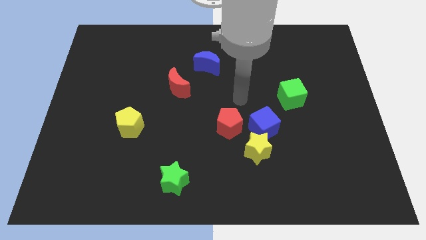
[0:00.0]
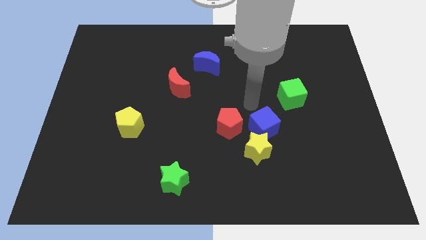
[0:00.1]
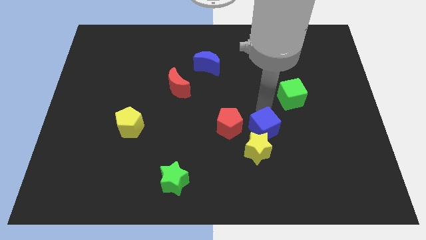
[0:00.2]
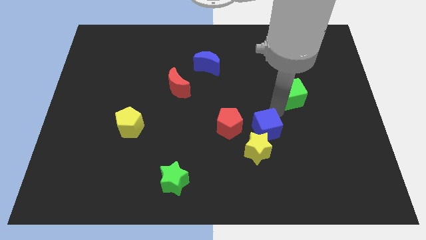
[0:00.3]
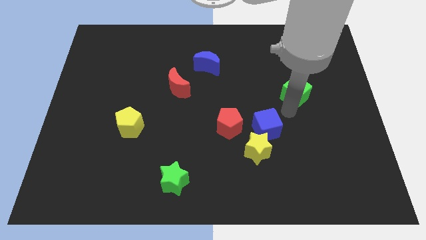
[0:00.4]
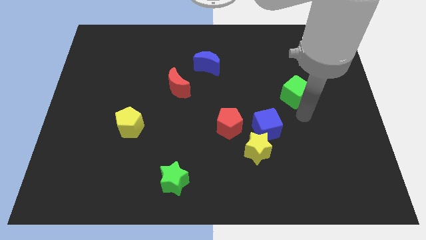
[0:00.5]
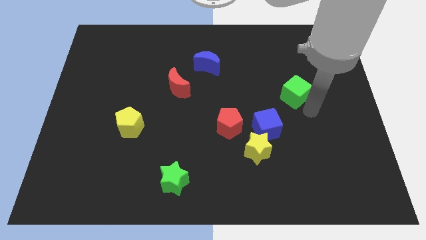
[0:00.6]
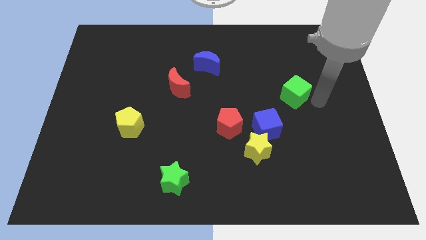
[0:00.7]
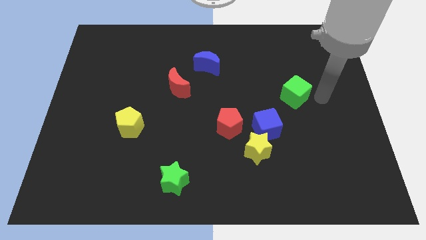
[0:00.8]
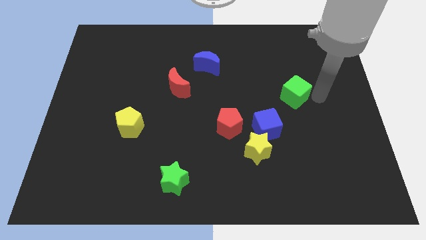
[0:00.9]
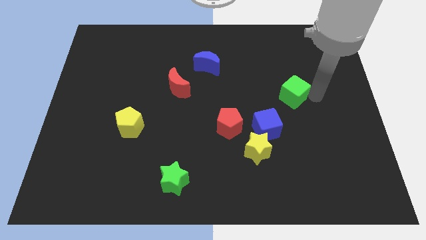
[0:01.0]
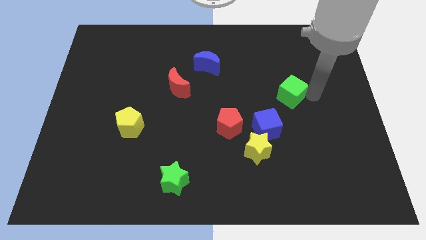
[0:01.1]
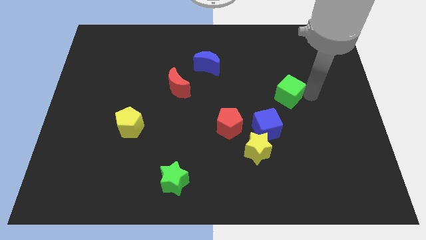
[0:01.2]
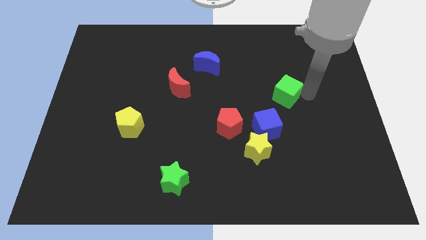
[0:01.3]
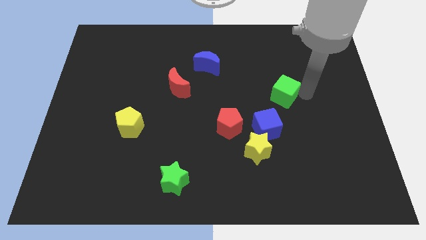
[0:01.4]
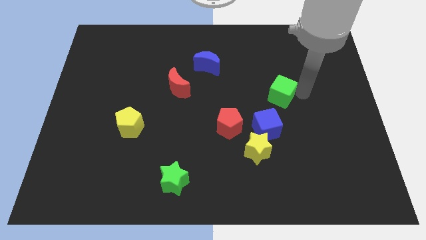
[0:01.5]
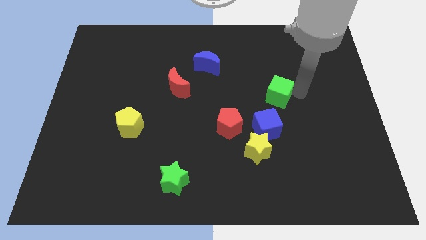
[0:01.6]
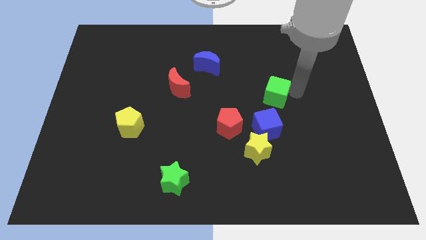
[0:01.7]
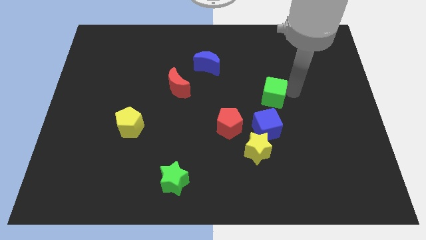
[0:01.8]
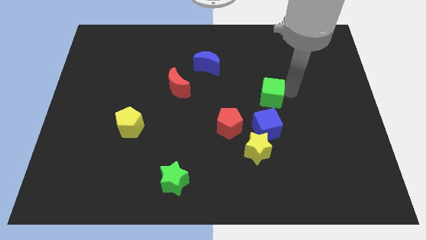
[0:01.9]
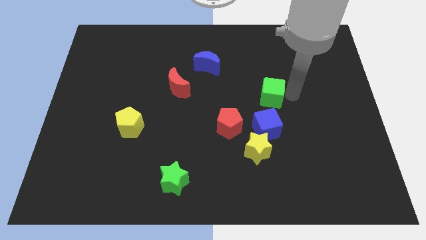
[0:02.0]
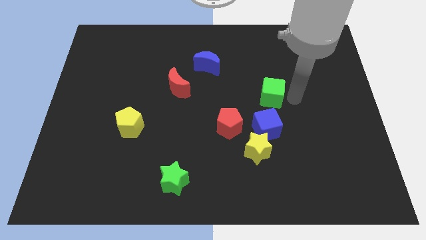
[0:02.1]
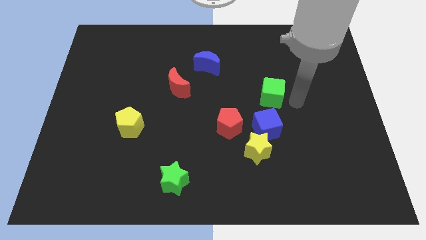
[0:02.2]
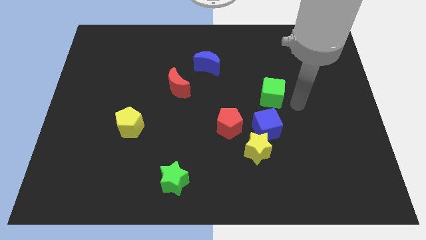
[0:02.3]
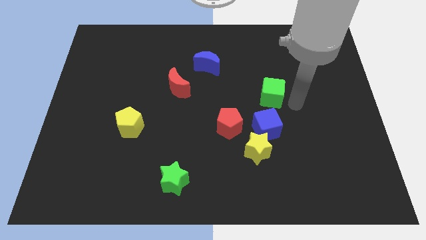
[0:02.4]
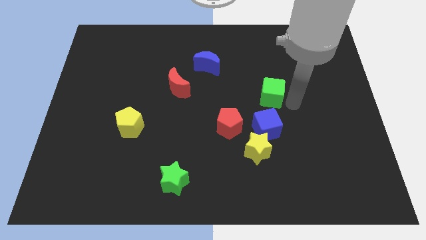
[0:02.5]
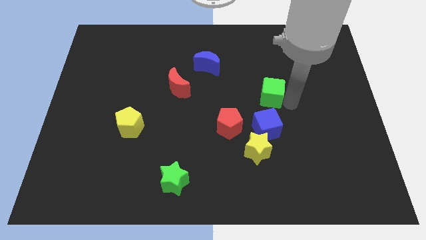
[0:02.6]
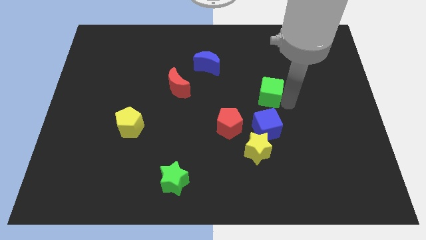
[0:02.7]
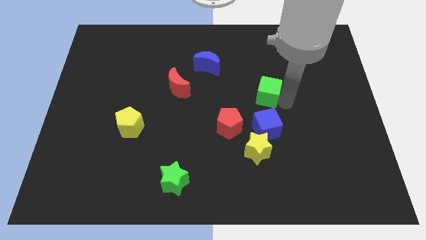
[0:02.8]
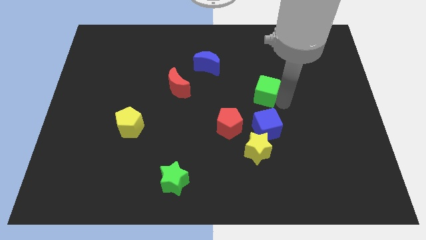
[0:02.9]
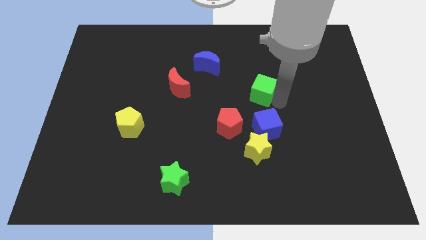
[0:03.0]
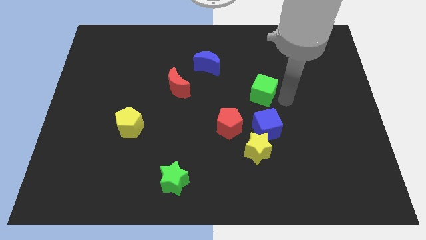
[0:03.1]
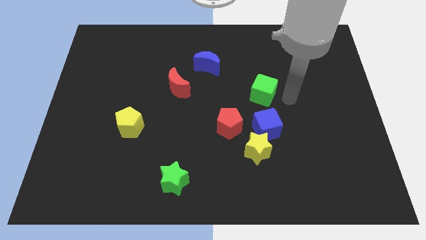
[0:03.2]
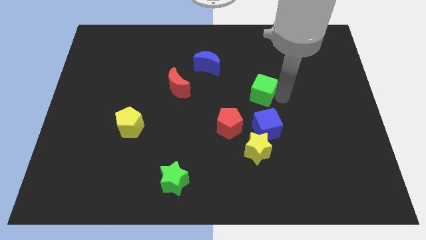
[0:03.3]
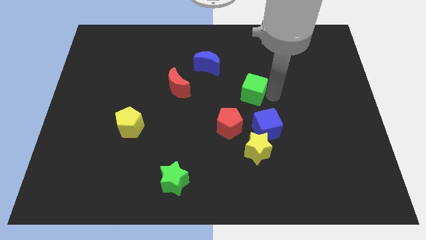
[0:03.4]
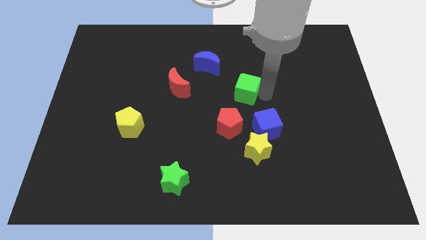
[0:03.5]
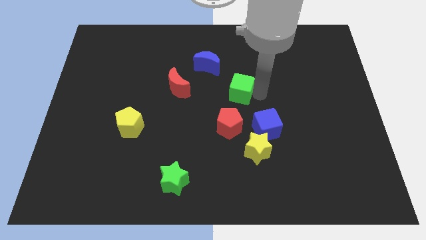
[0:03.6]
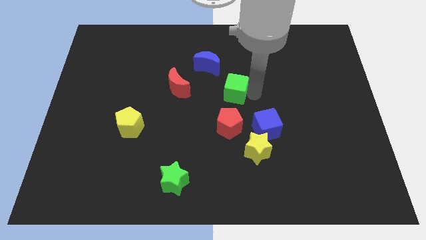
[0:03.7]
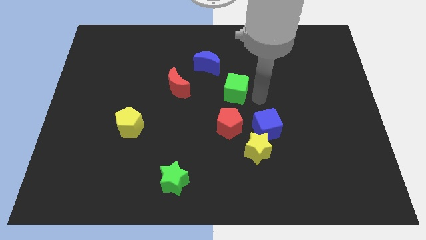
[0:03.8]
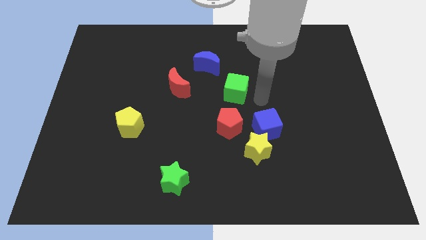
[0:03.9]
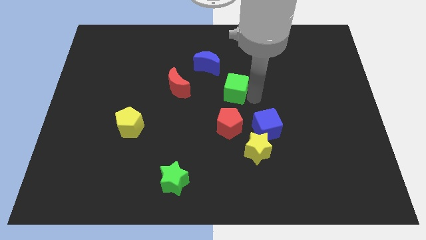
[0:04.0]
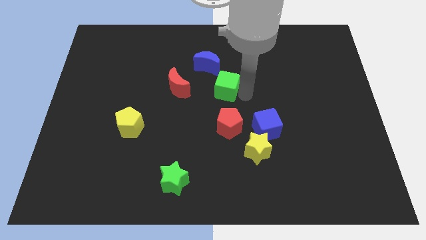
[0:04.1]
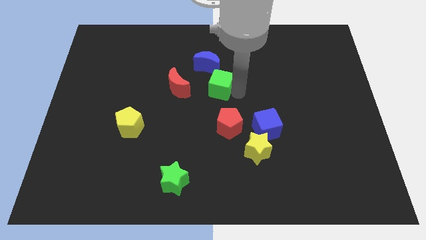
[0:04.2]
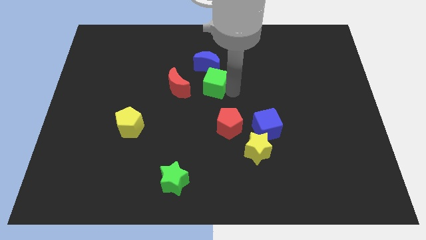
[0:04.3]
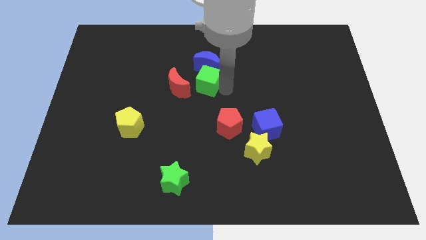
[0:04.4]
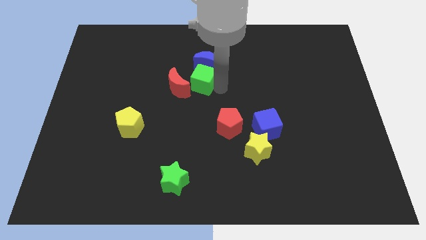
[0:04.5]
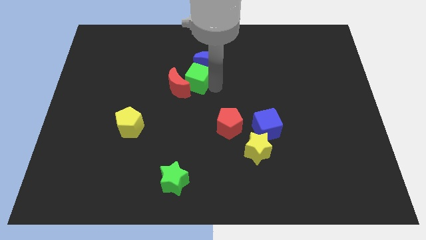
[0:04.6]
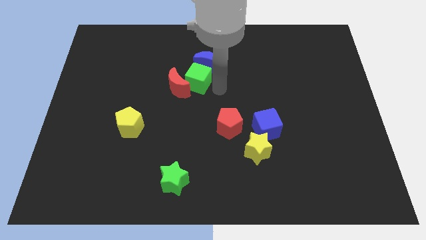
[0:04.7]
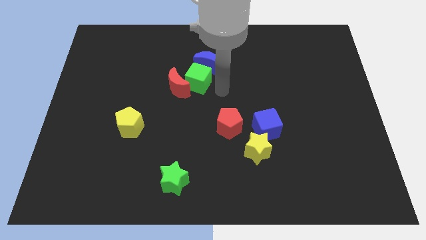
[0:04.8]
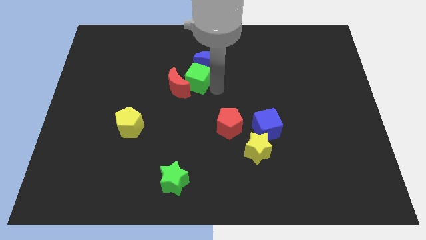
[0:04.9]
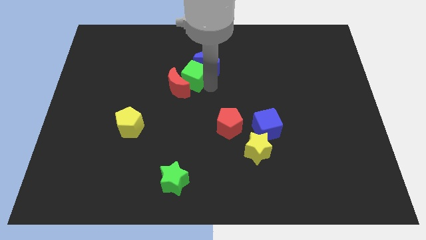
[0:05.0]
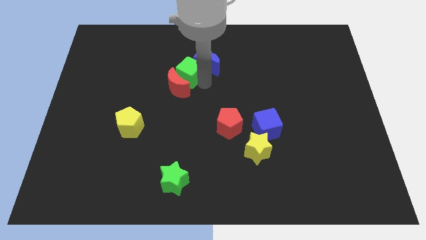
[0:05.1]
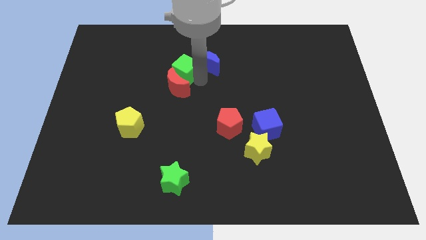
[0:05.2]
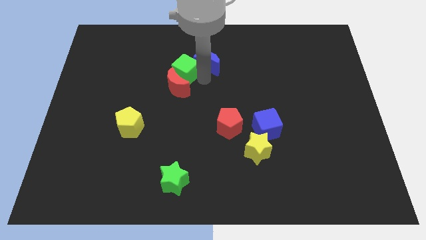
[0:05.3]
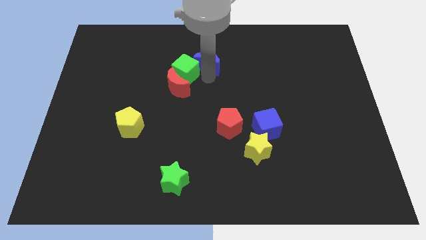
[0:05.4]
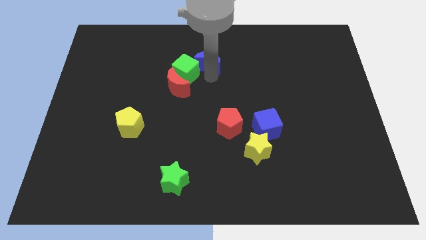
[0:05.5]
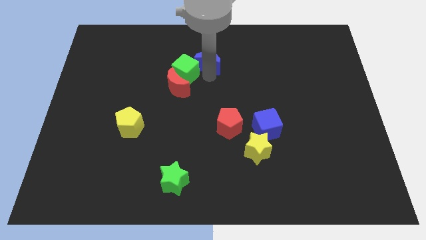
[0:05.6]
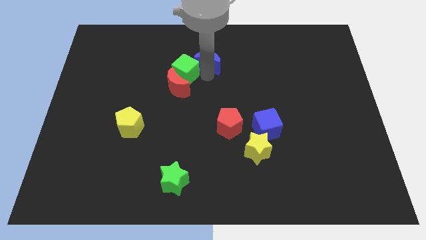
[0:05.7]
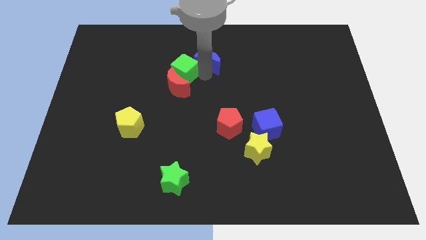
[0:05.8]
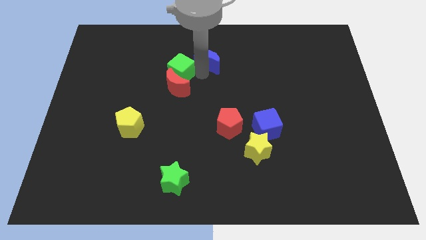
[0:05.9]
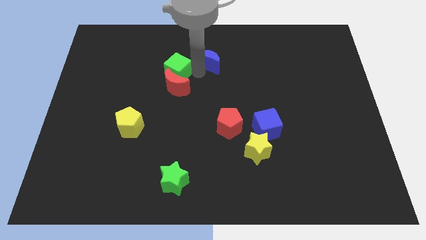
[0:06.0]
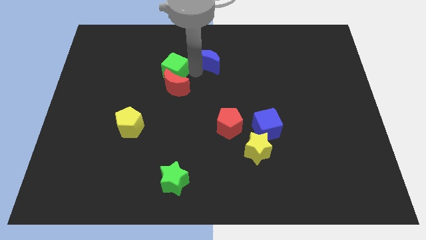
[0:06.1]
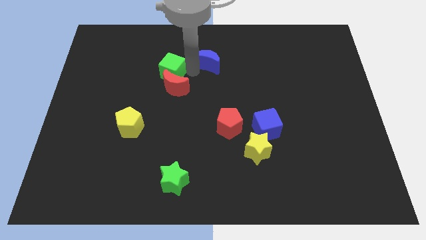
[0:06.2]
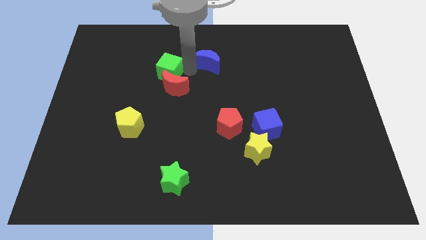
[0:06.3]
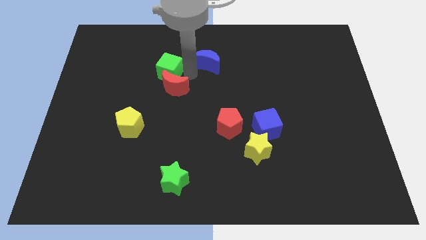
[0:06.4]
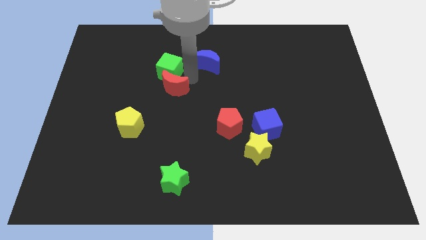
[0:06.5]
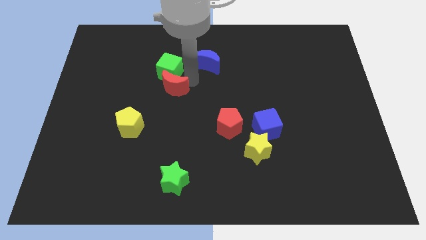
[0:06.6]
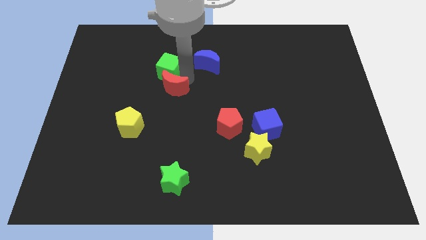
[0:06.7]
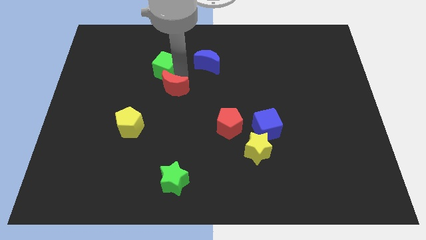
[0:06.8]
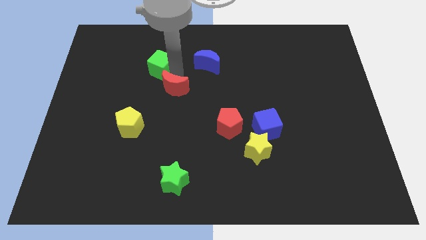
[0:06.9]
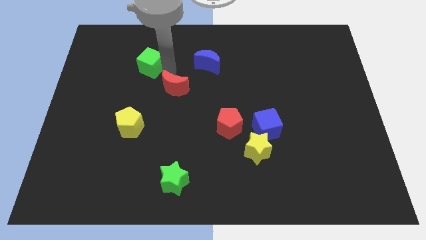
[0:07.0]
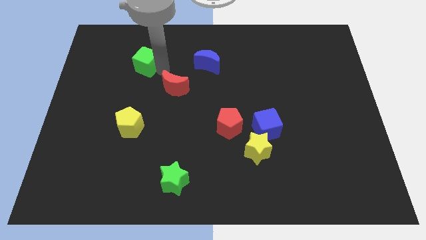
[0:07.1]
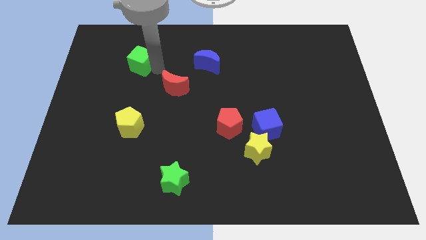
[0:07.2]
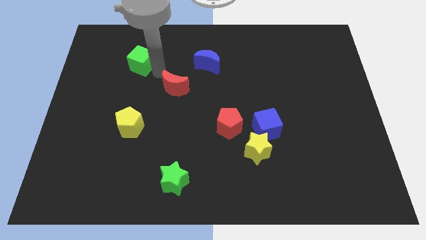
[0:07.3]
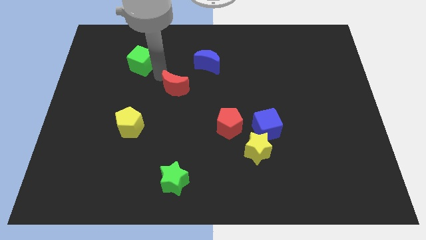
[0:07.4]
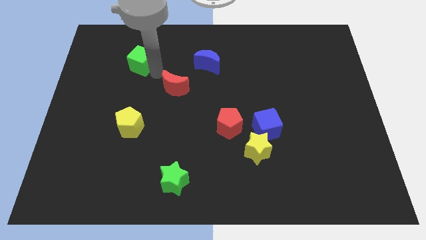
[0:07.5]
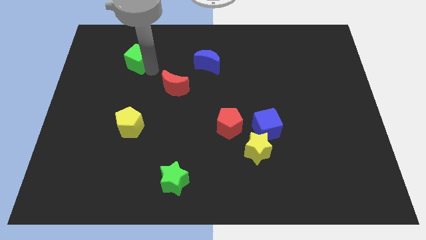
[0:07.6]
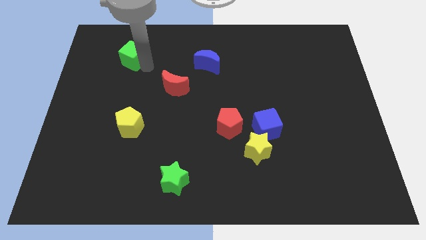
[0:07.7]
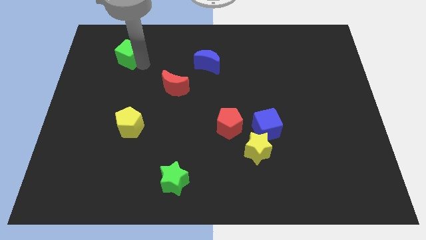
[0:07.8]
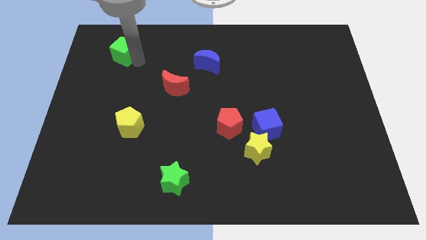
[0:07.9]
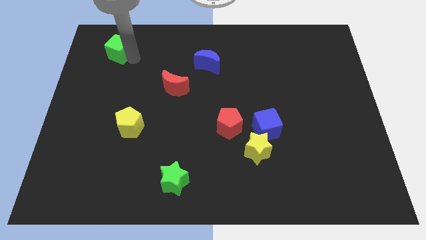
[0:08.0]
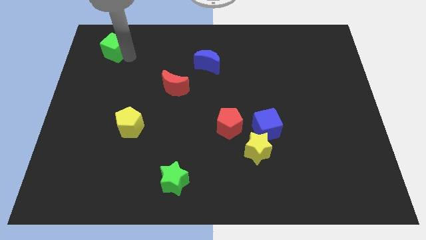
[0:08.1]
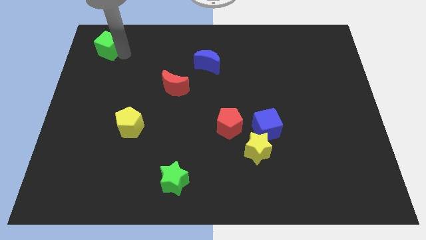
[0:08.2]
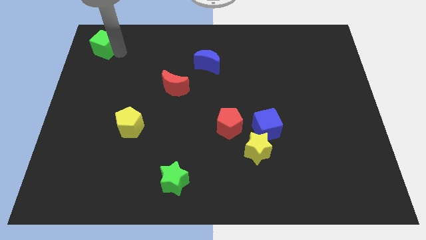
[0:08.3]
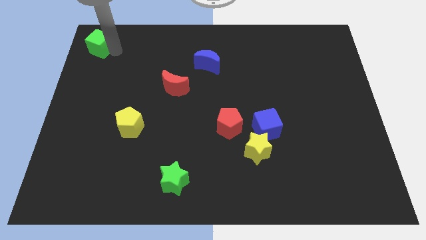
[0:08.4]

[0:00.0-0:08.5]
move the green cube to the top left
